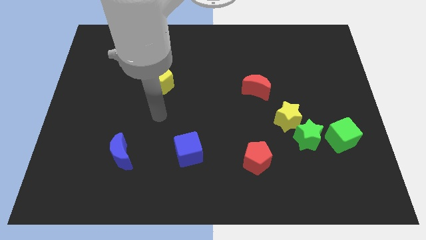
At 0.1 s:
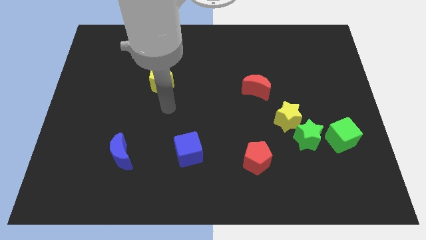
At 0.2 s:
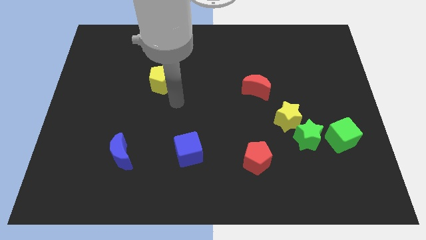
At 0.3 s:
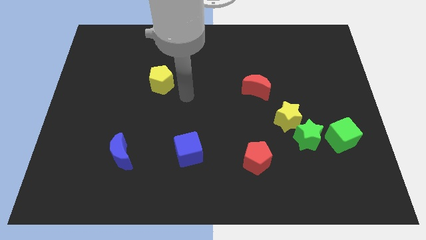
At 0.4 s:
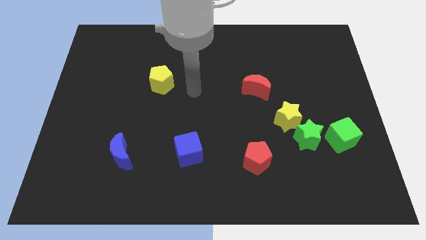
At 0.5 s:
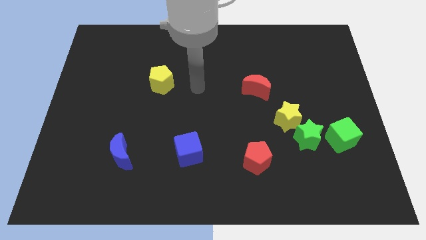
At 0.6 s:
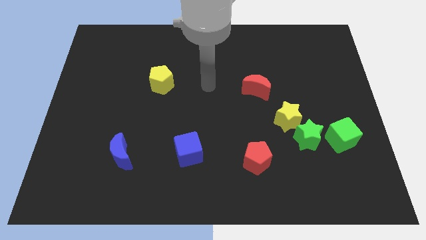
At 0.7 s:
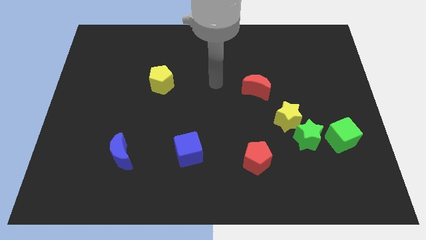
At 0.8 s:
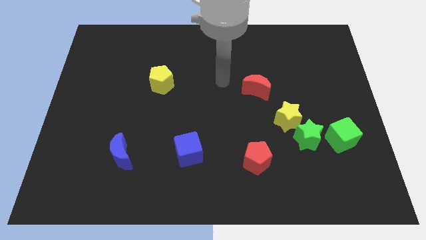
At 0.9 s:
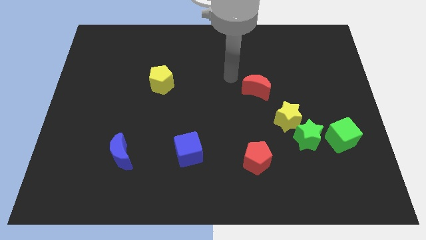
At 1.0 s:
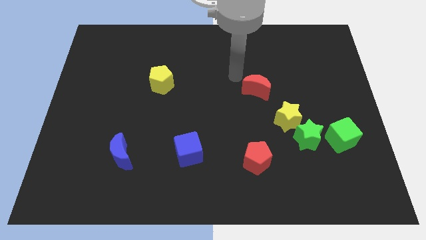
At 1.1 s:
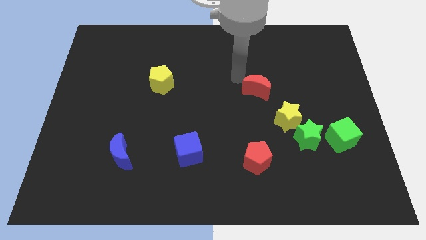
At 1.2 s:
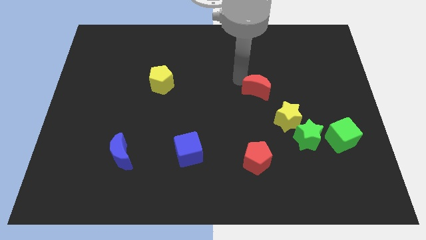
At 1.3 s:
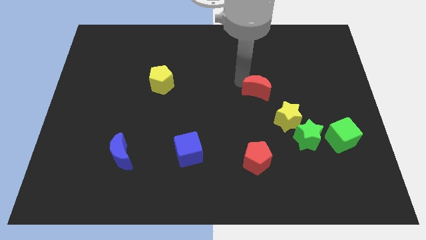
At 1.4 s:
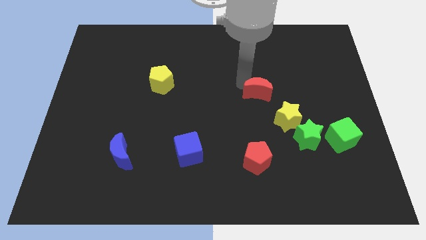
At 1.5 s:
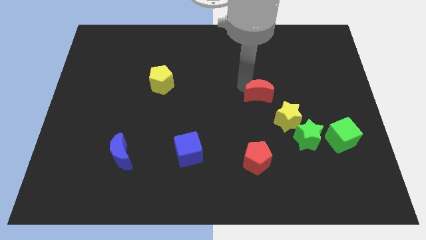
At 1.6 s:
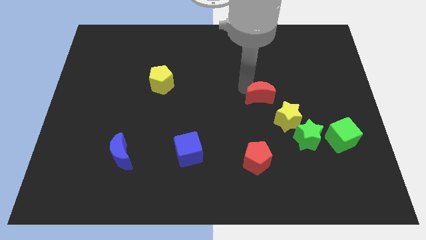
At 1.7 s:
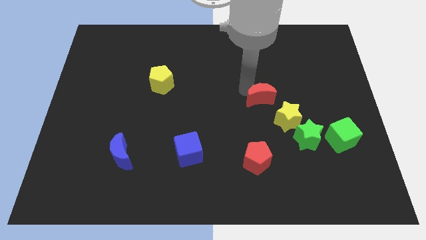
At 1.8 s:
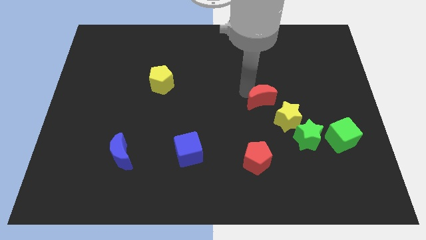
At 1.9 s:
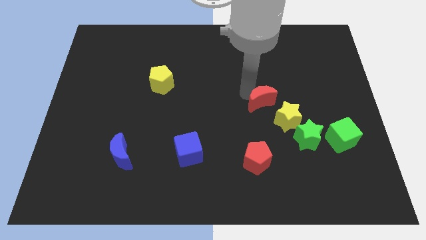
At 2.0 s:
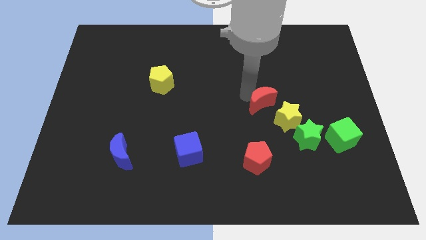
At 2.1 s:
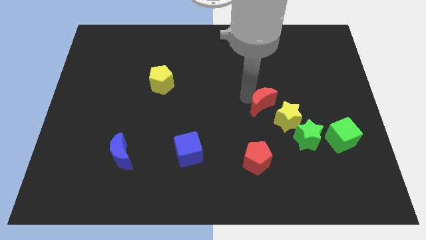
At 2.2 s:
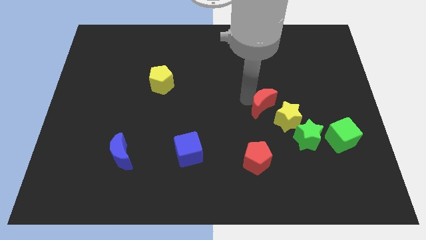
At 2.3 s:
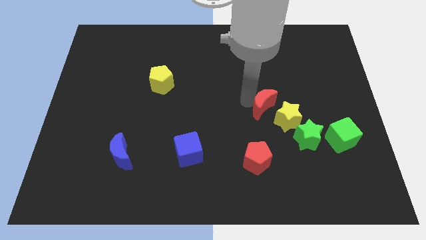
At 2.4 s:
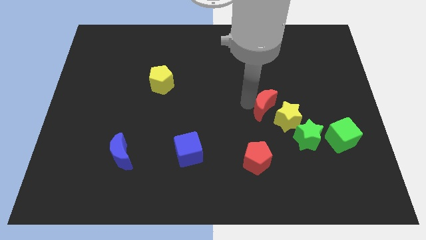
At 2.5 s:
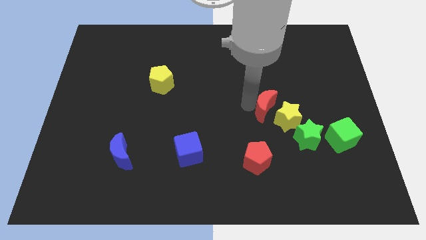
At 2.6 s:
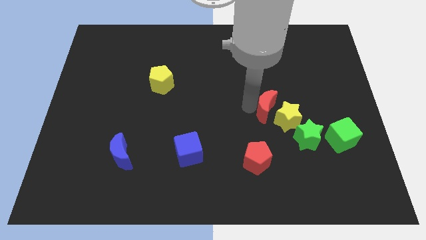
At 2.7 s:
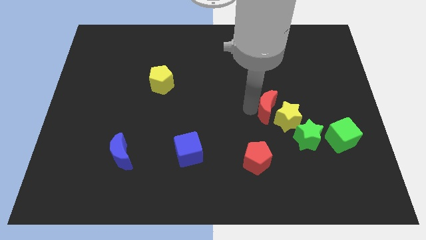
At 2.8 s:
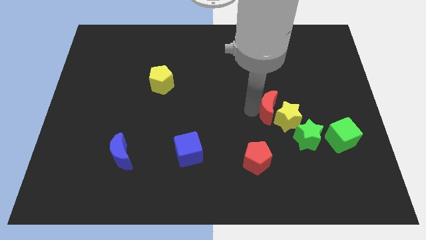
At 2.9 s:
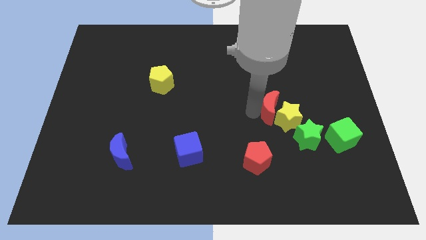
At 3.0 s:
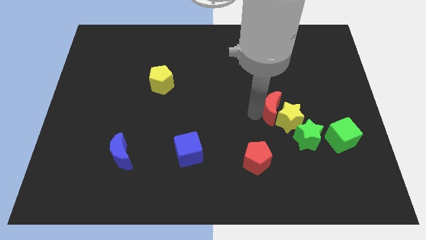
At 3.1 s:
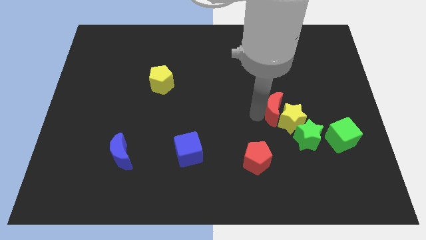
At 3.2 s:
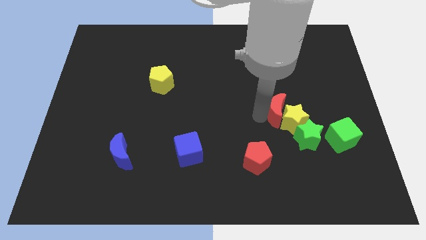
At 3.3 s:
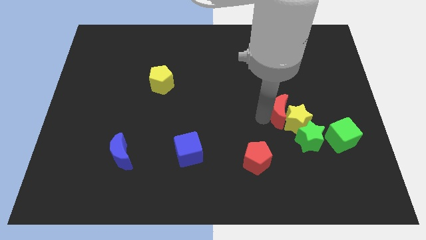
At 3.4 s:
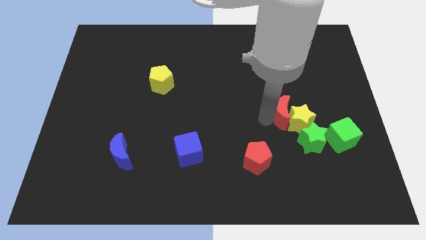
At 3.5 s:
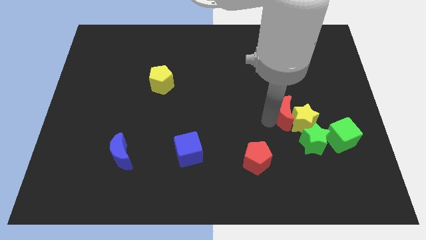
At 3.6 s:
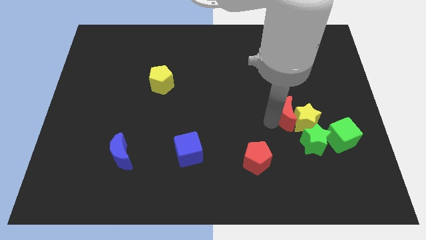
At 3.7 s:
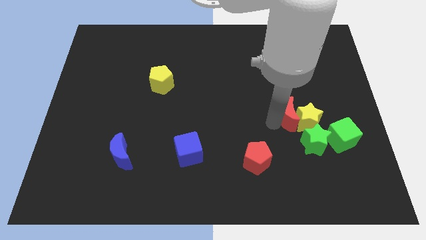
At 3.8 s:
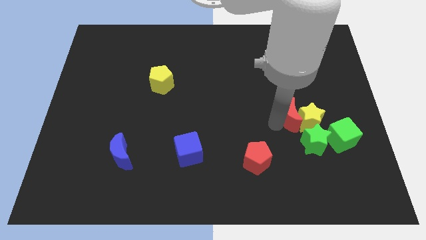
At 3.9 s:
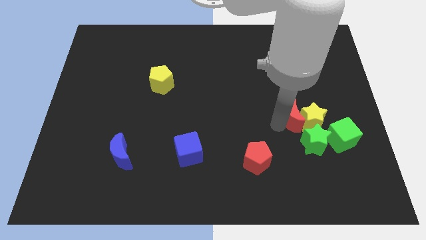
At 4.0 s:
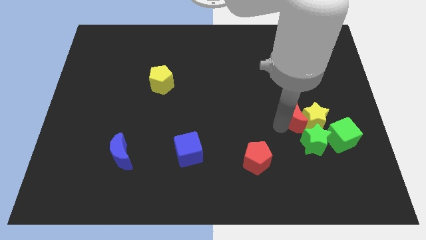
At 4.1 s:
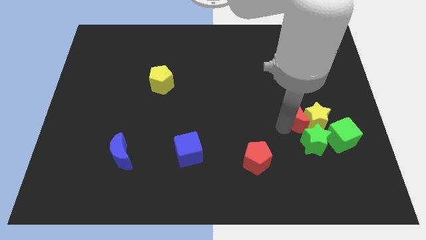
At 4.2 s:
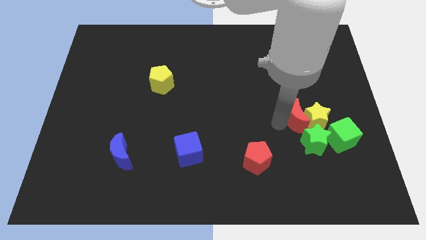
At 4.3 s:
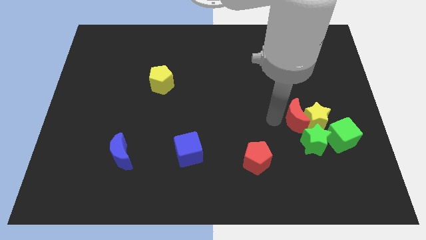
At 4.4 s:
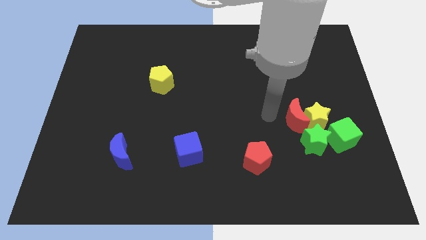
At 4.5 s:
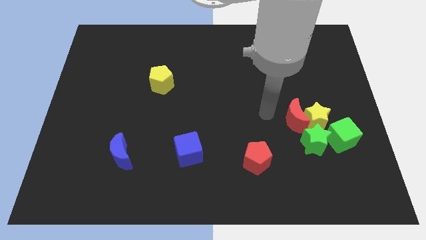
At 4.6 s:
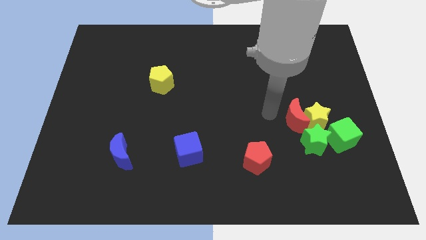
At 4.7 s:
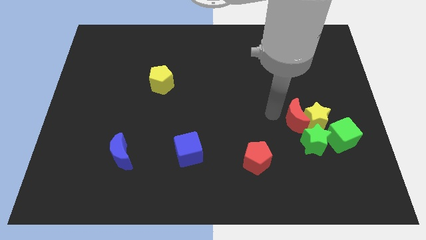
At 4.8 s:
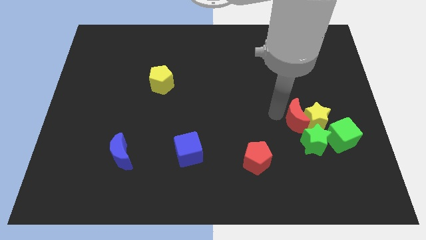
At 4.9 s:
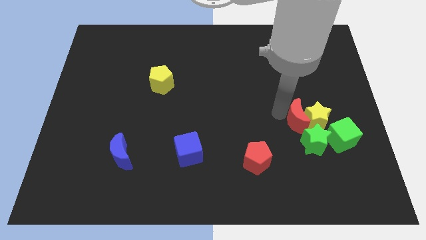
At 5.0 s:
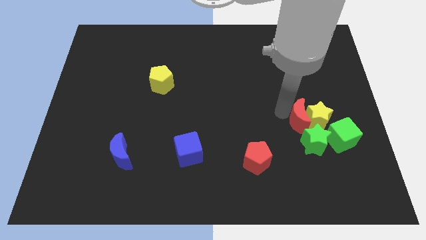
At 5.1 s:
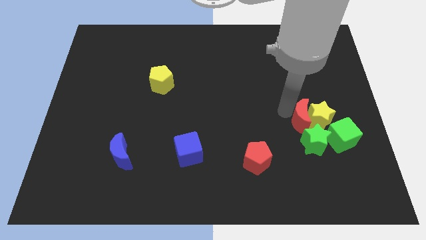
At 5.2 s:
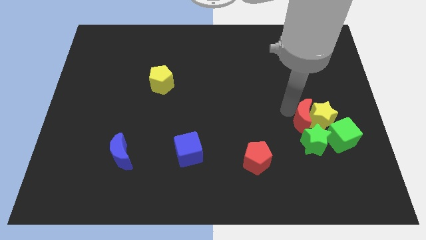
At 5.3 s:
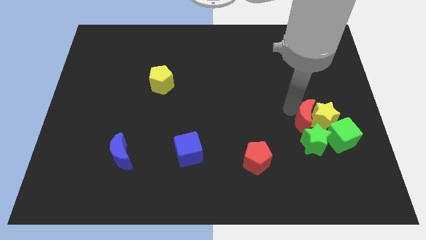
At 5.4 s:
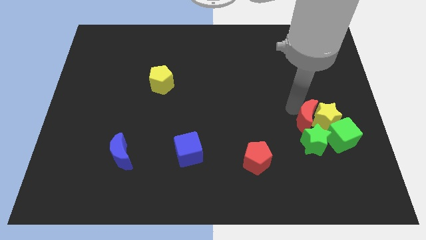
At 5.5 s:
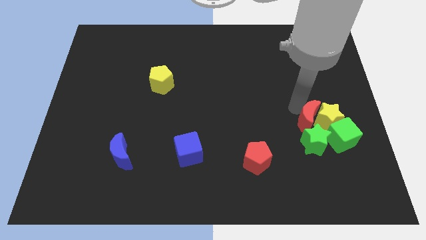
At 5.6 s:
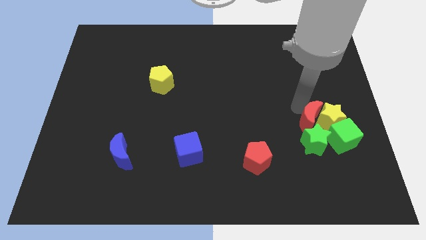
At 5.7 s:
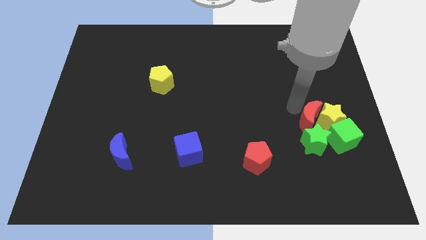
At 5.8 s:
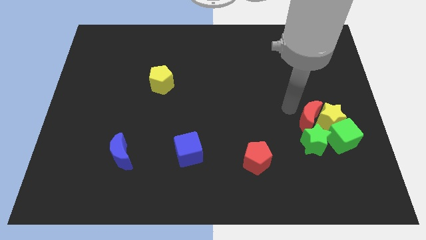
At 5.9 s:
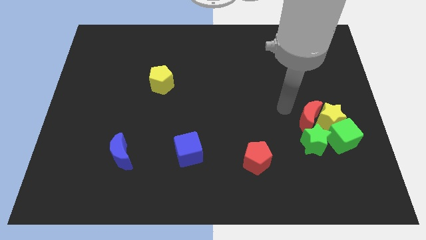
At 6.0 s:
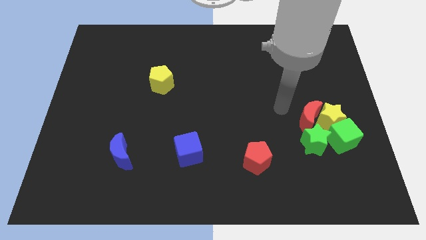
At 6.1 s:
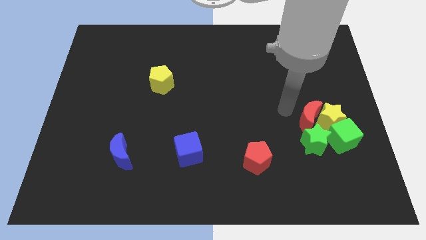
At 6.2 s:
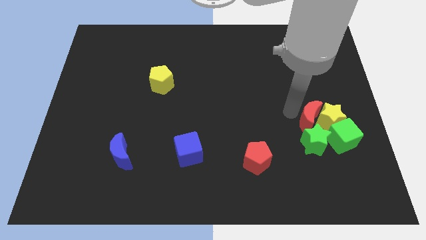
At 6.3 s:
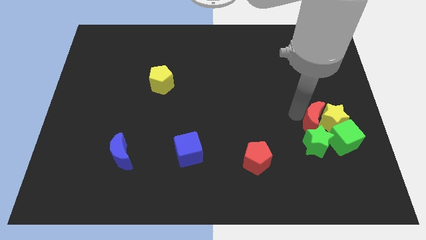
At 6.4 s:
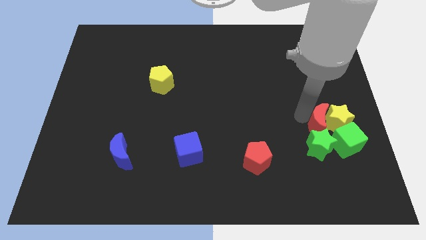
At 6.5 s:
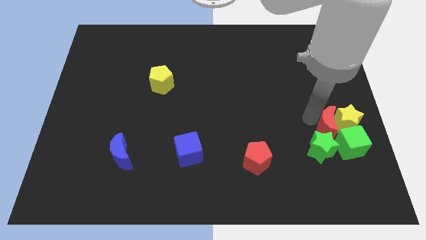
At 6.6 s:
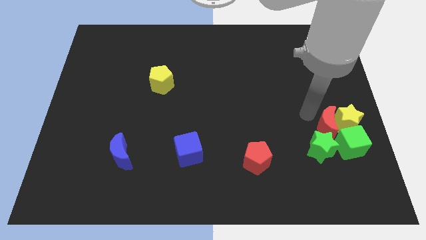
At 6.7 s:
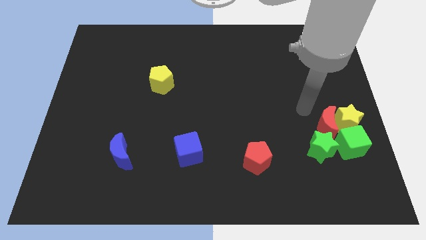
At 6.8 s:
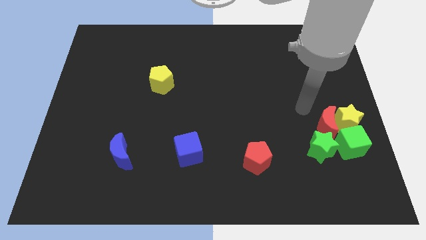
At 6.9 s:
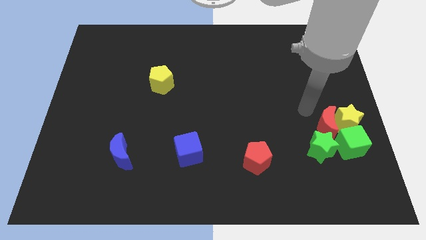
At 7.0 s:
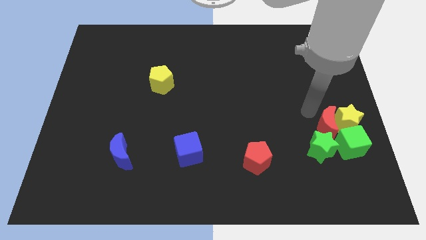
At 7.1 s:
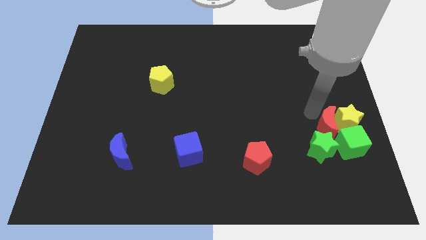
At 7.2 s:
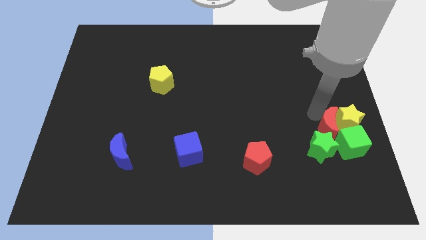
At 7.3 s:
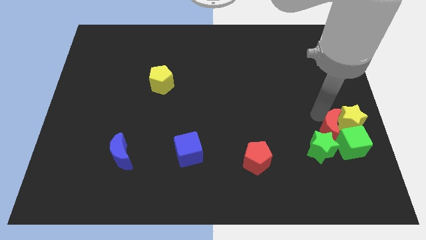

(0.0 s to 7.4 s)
slide the red moon close to the green cube

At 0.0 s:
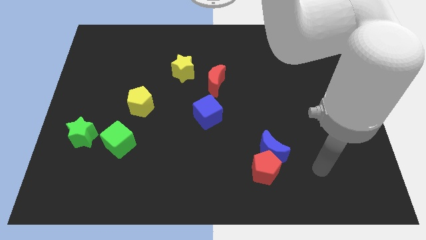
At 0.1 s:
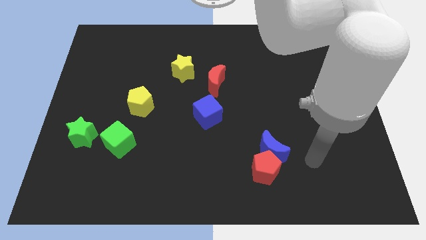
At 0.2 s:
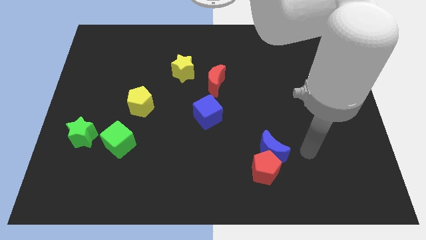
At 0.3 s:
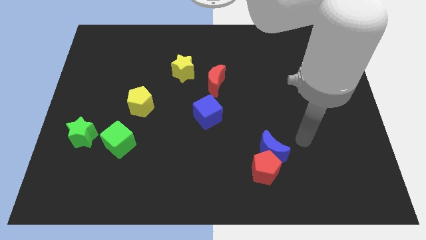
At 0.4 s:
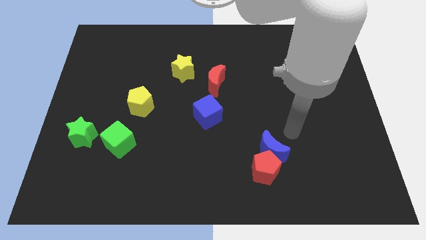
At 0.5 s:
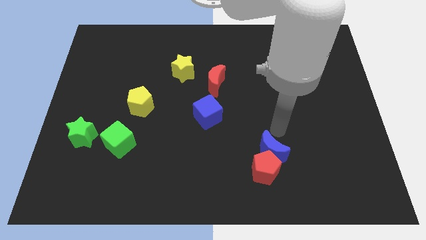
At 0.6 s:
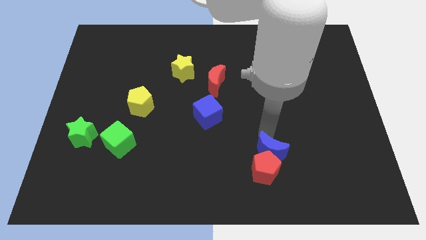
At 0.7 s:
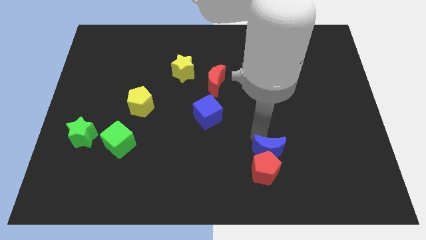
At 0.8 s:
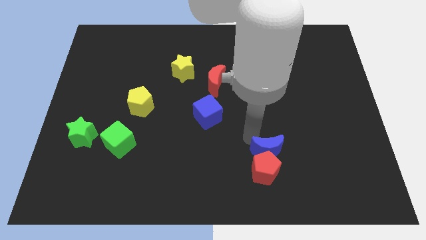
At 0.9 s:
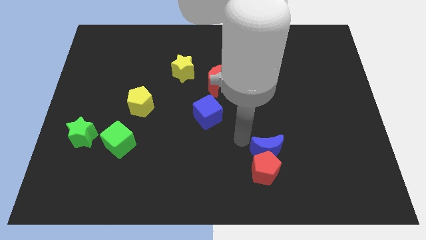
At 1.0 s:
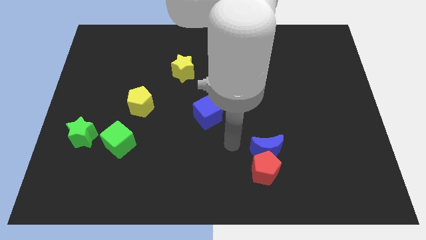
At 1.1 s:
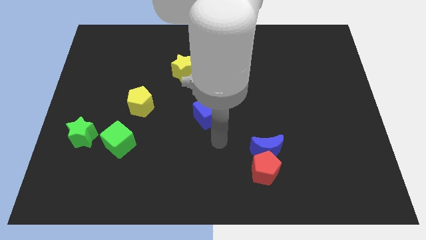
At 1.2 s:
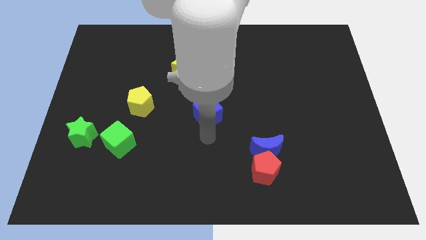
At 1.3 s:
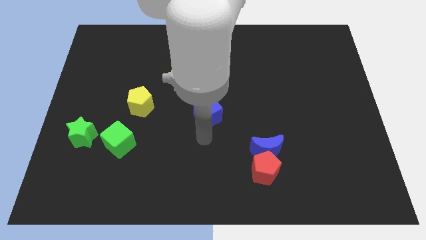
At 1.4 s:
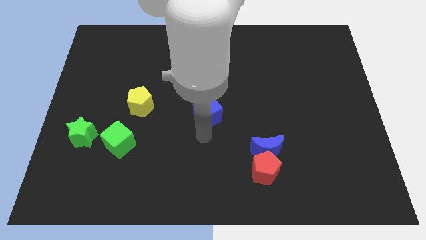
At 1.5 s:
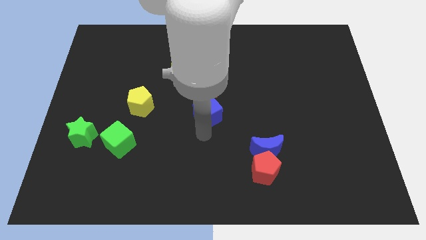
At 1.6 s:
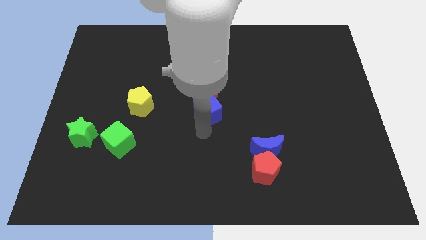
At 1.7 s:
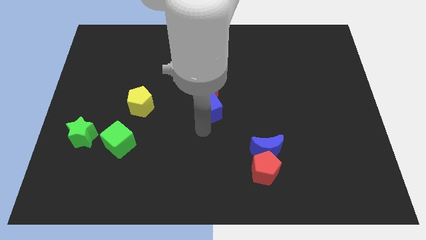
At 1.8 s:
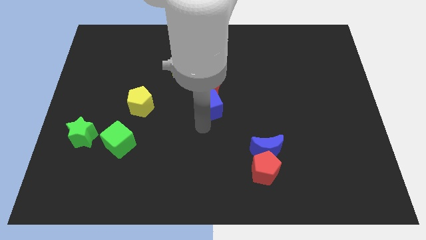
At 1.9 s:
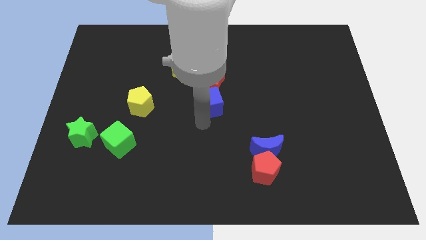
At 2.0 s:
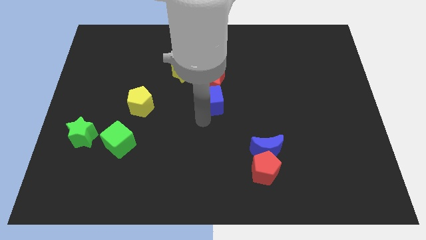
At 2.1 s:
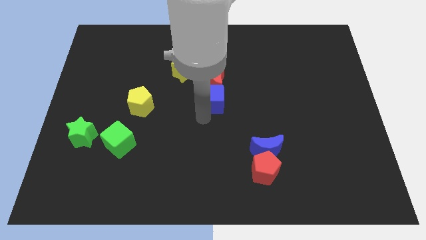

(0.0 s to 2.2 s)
push the blue cube close to the red moon
